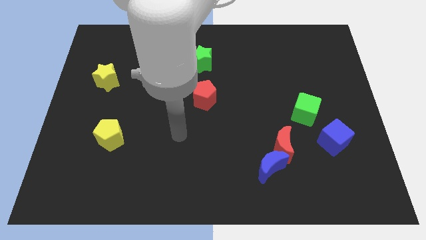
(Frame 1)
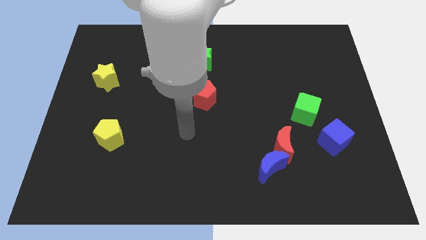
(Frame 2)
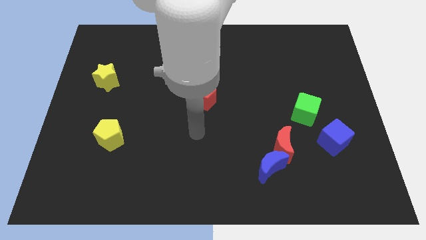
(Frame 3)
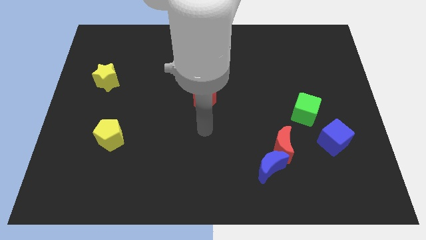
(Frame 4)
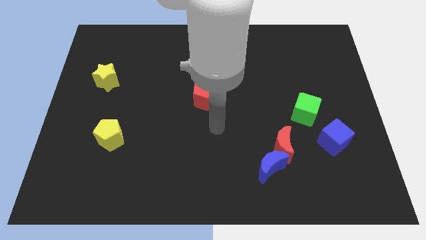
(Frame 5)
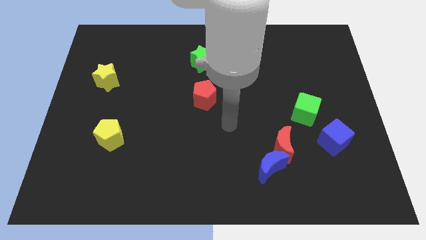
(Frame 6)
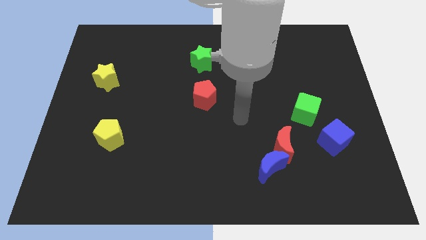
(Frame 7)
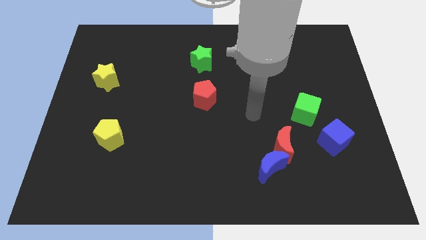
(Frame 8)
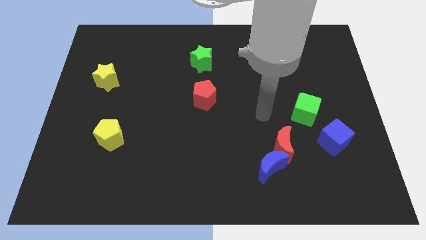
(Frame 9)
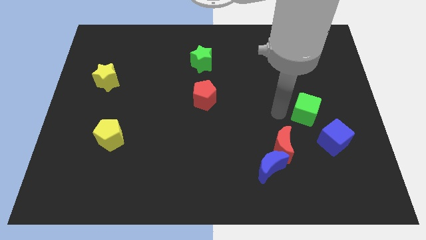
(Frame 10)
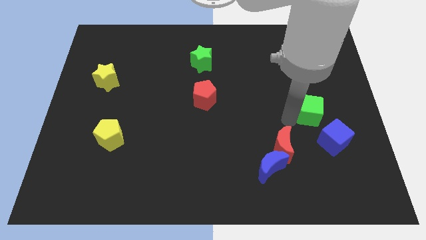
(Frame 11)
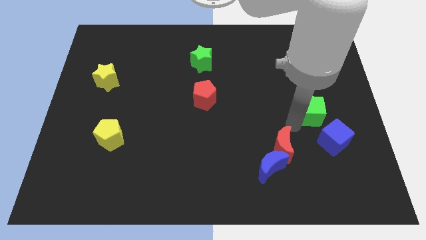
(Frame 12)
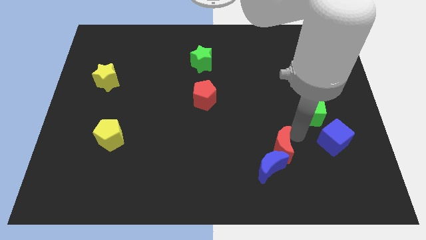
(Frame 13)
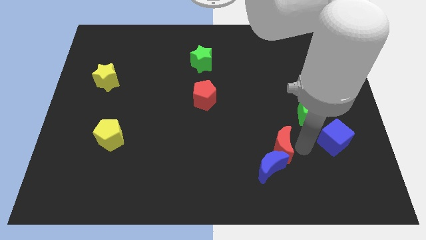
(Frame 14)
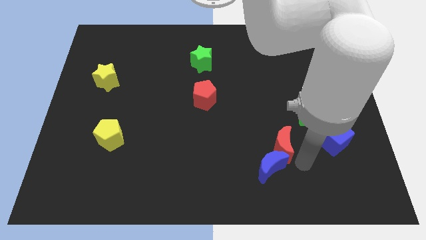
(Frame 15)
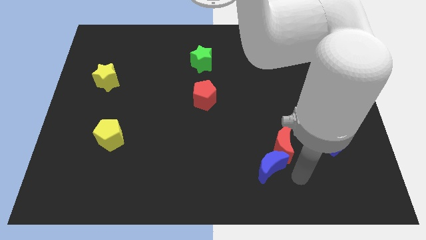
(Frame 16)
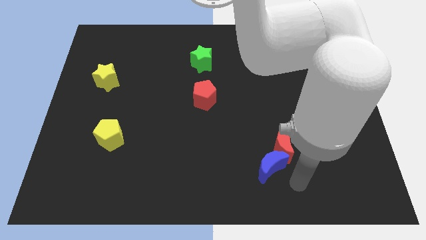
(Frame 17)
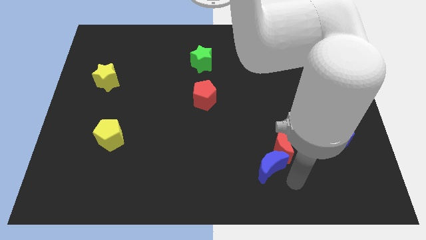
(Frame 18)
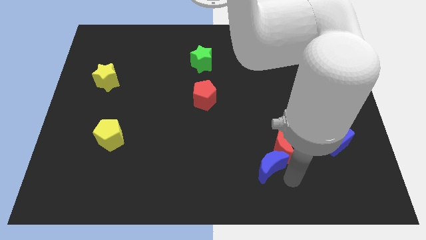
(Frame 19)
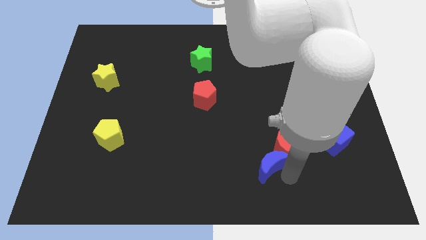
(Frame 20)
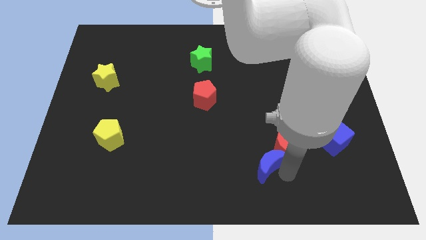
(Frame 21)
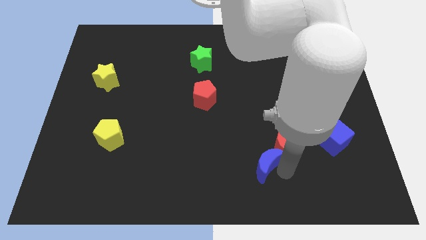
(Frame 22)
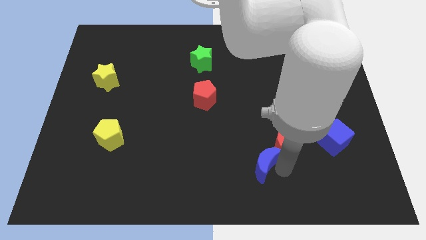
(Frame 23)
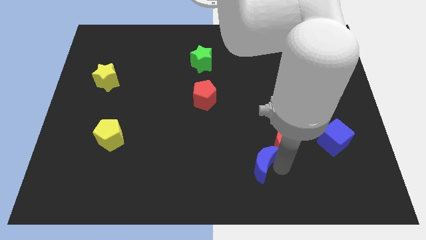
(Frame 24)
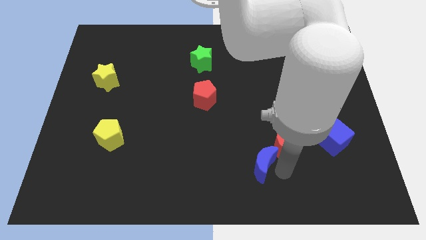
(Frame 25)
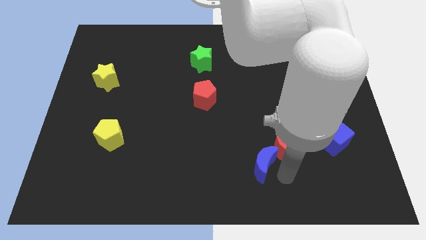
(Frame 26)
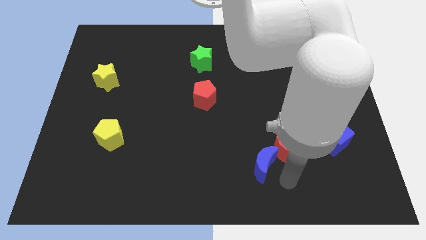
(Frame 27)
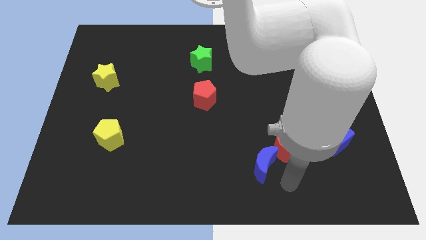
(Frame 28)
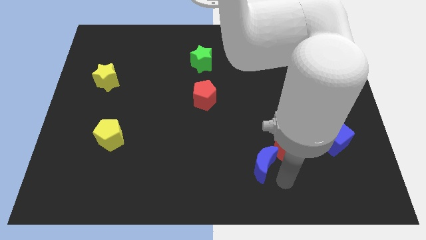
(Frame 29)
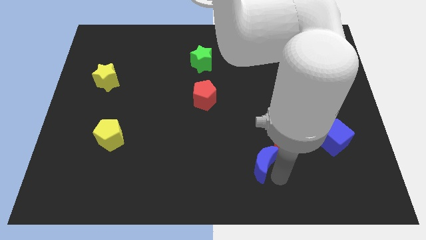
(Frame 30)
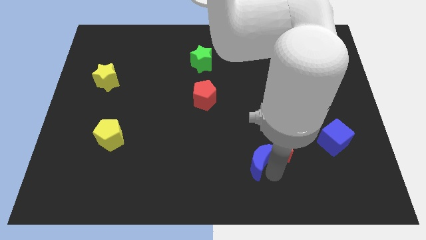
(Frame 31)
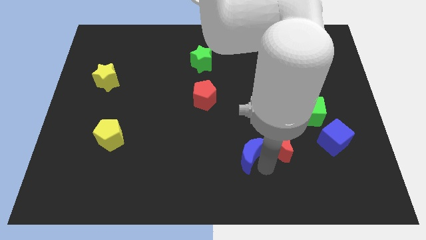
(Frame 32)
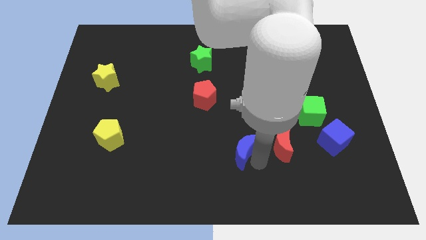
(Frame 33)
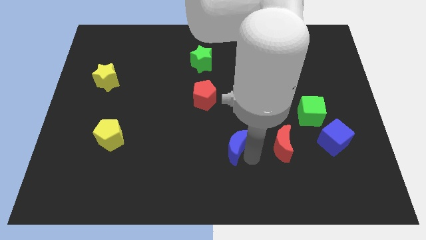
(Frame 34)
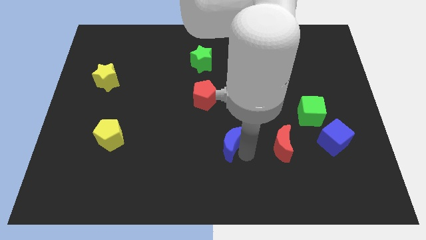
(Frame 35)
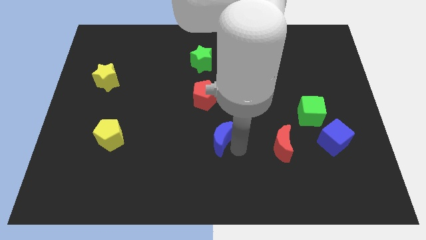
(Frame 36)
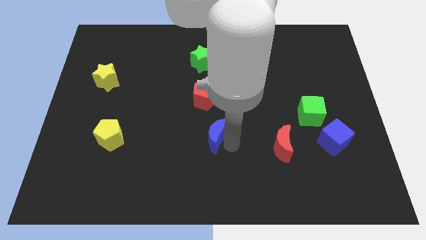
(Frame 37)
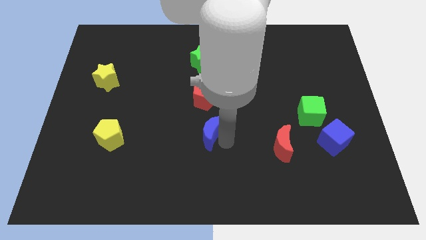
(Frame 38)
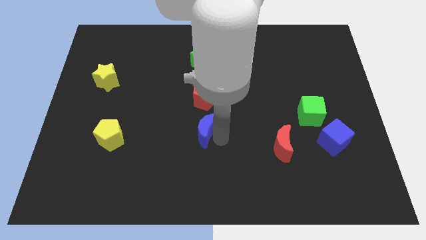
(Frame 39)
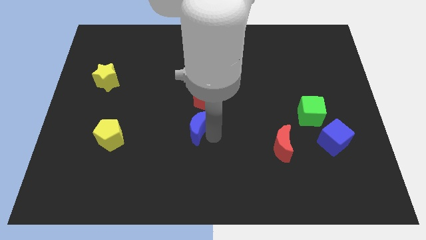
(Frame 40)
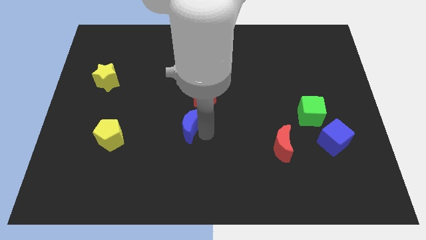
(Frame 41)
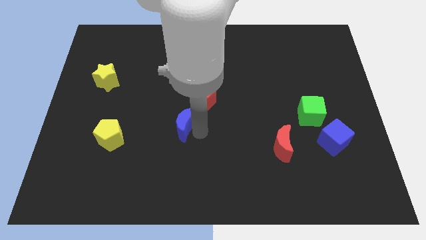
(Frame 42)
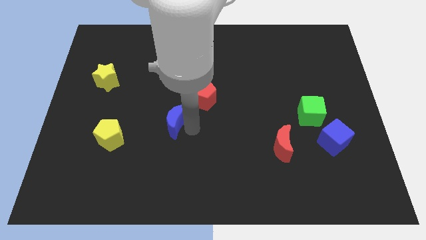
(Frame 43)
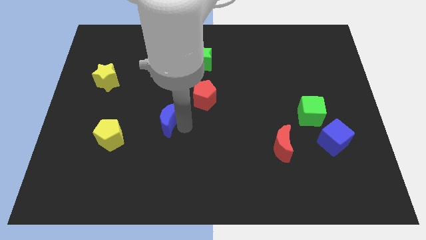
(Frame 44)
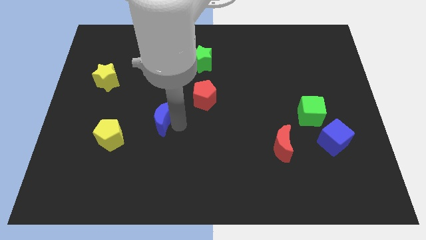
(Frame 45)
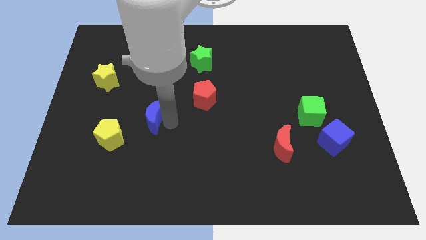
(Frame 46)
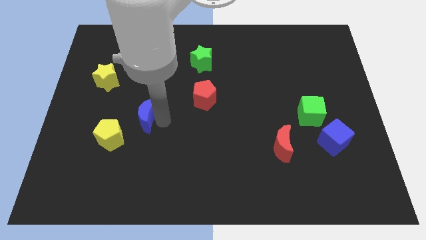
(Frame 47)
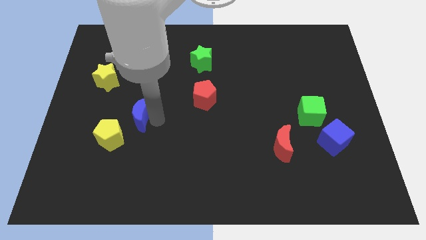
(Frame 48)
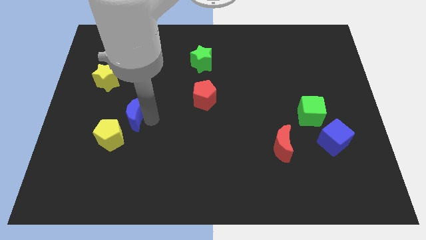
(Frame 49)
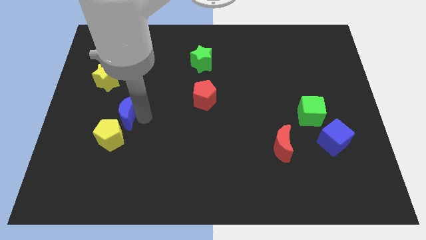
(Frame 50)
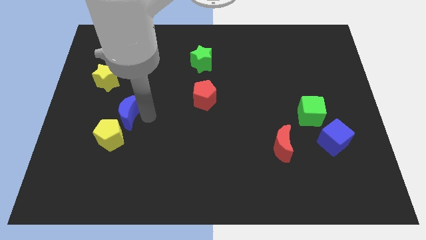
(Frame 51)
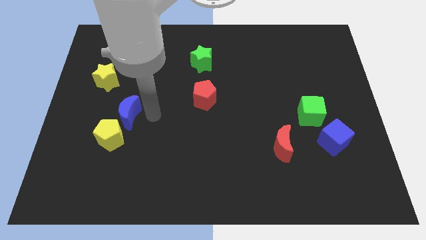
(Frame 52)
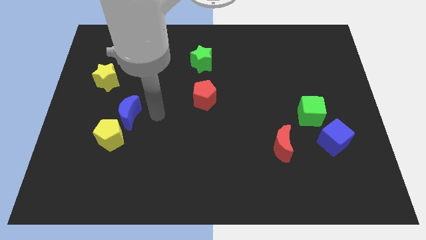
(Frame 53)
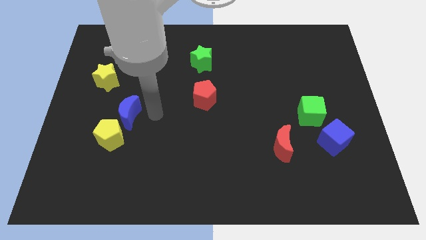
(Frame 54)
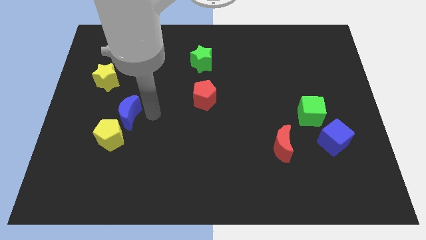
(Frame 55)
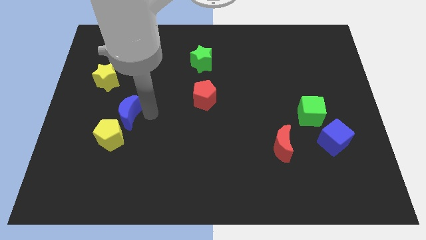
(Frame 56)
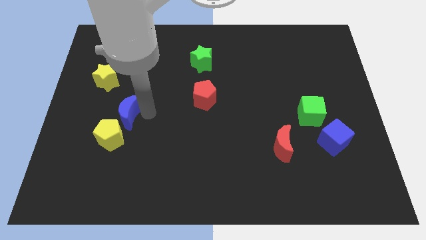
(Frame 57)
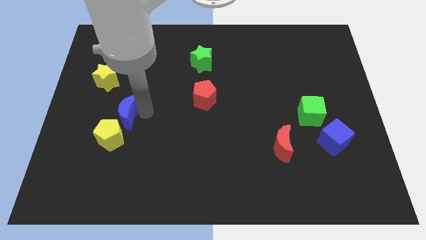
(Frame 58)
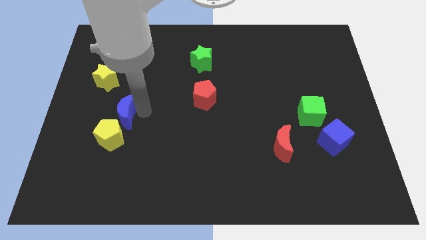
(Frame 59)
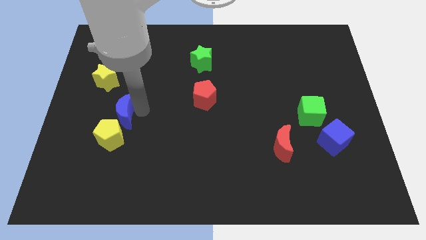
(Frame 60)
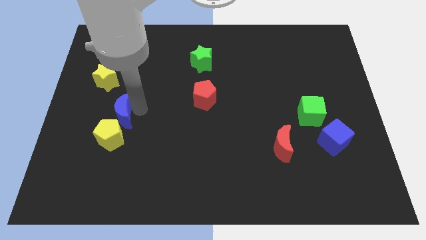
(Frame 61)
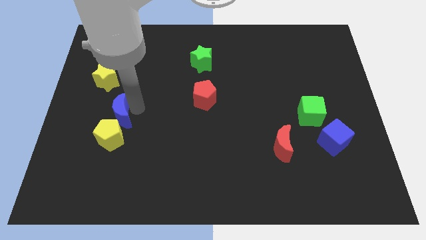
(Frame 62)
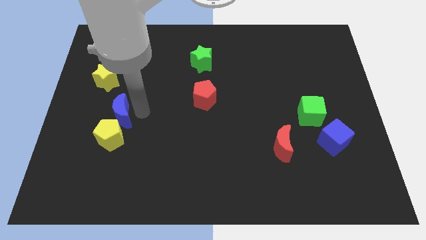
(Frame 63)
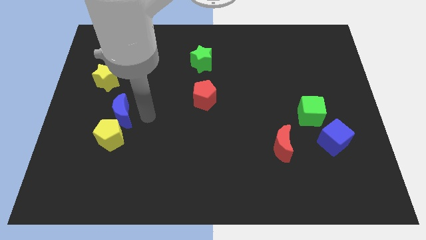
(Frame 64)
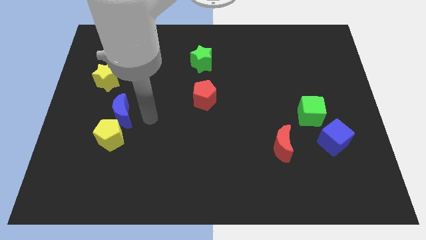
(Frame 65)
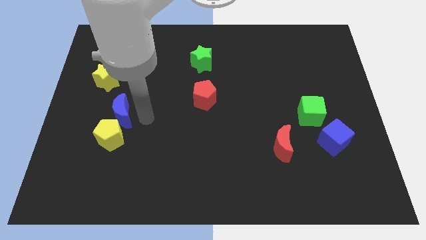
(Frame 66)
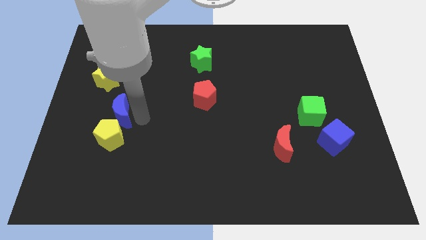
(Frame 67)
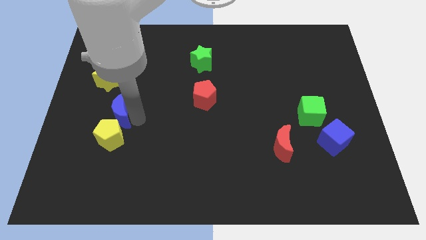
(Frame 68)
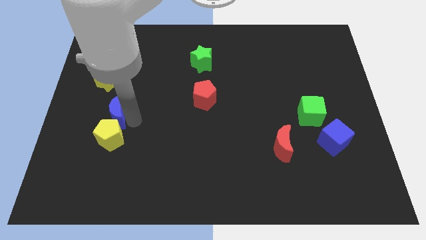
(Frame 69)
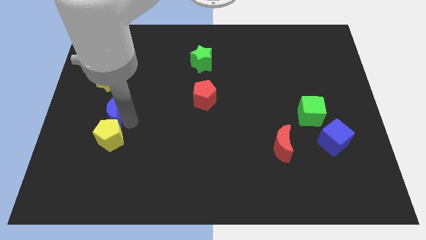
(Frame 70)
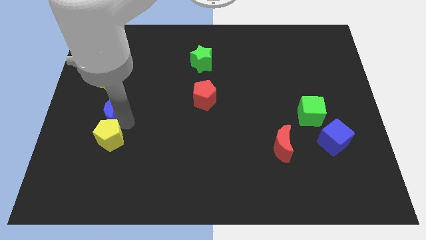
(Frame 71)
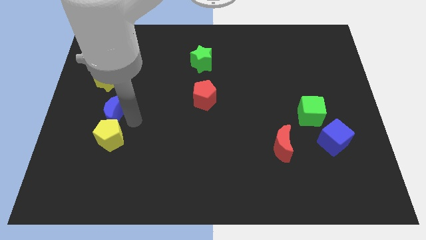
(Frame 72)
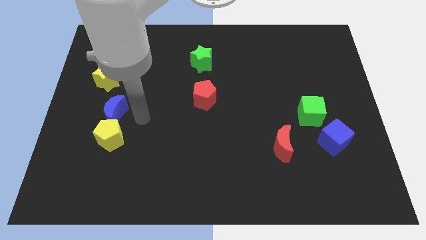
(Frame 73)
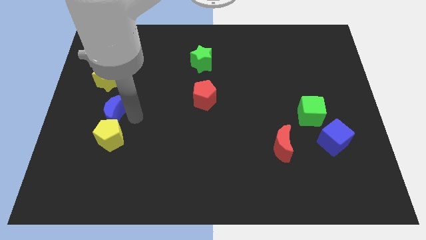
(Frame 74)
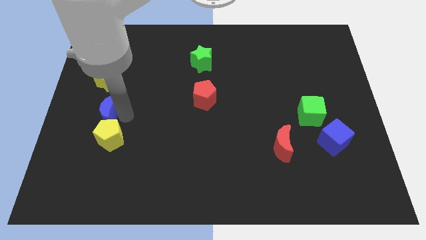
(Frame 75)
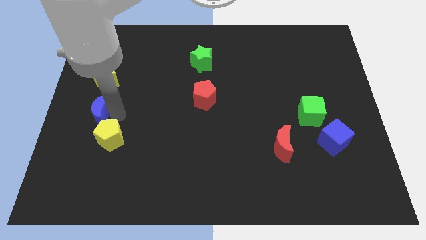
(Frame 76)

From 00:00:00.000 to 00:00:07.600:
move the blue moon to the center left
